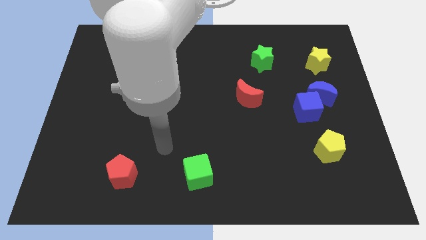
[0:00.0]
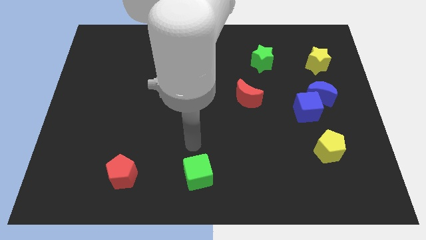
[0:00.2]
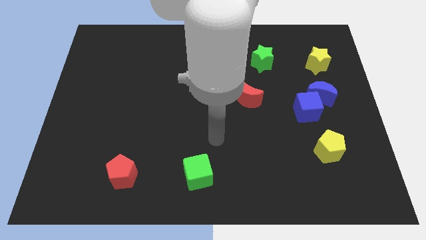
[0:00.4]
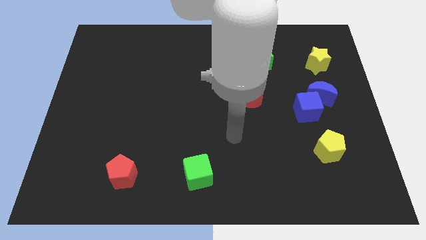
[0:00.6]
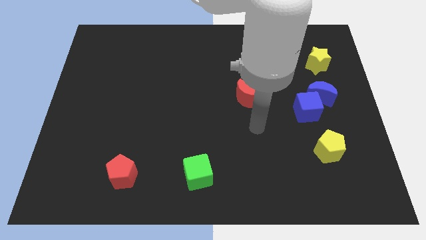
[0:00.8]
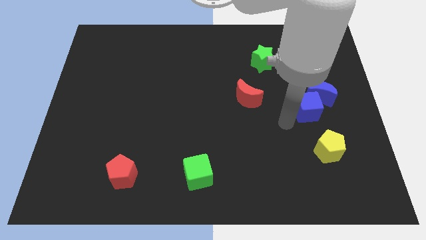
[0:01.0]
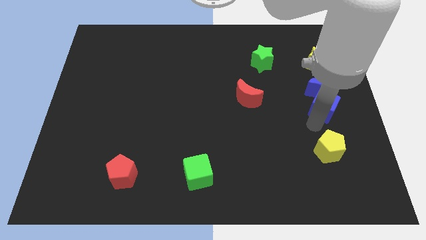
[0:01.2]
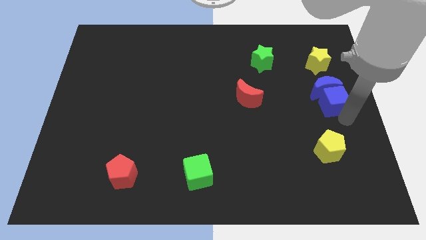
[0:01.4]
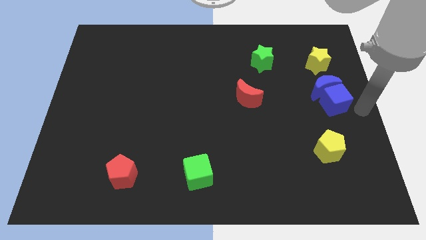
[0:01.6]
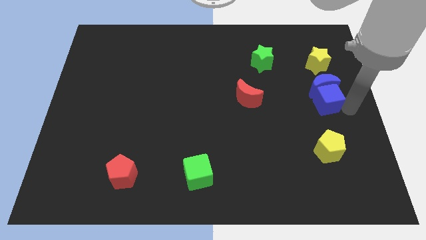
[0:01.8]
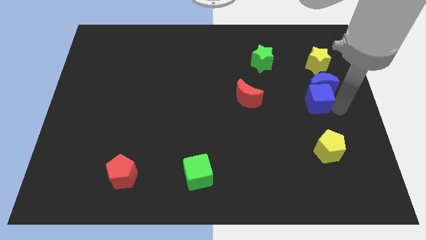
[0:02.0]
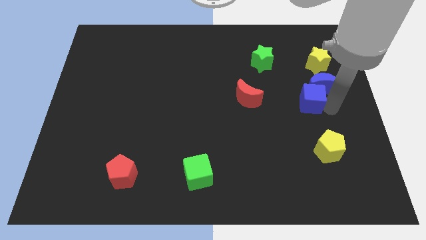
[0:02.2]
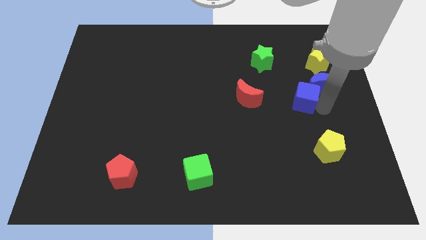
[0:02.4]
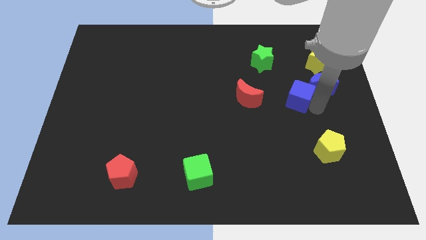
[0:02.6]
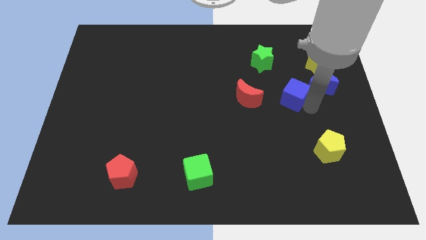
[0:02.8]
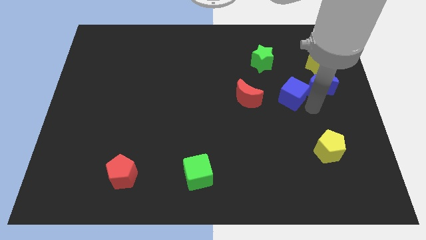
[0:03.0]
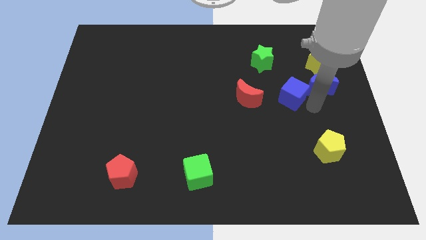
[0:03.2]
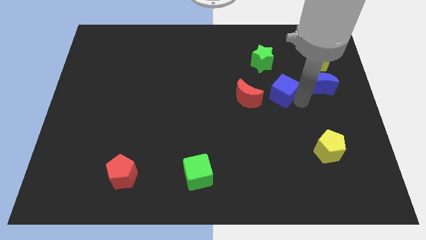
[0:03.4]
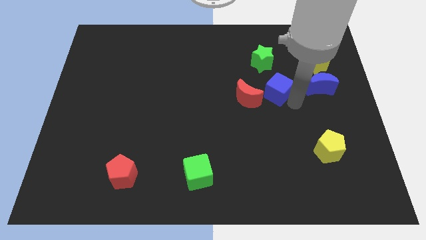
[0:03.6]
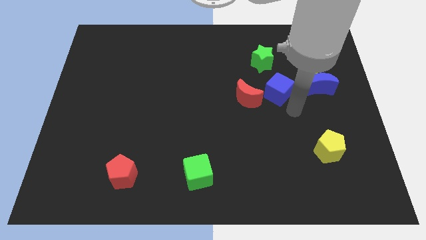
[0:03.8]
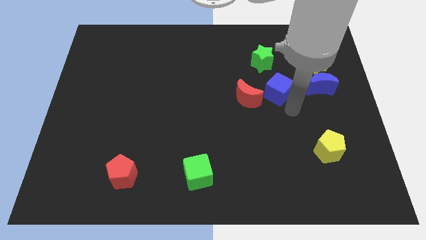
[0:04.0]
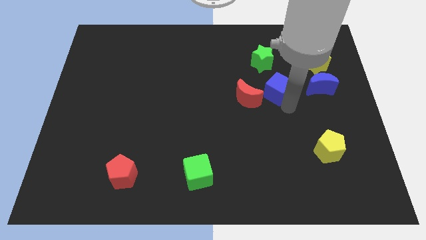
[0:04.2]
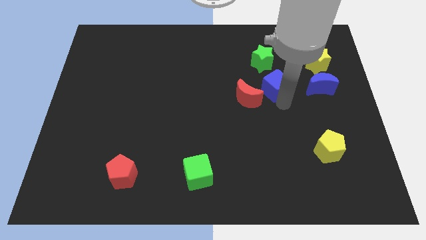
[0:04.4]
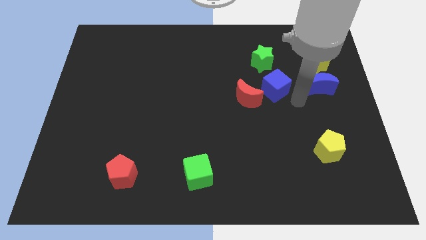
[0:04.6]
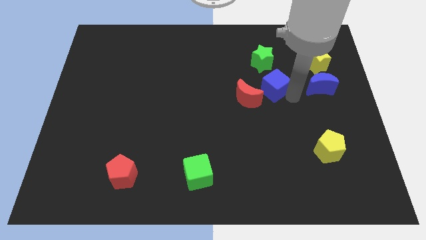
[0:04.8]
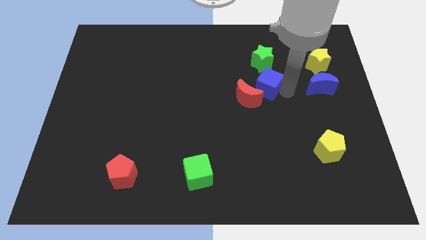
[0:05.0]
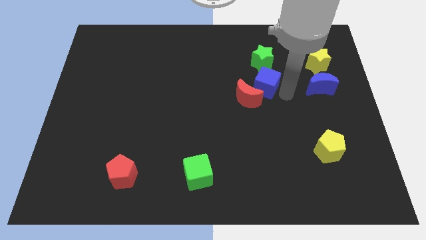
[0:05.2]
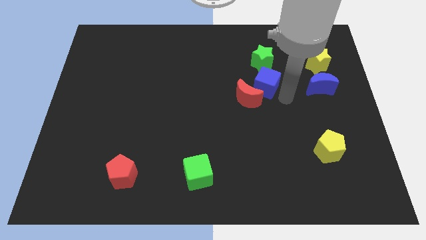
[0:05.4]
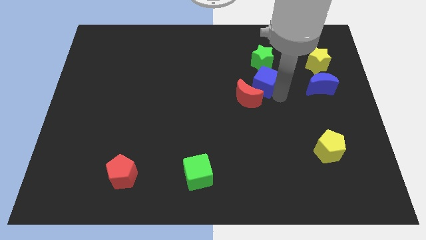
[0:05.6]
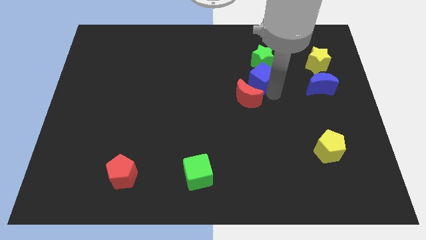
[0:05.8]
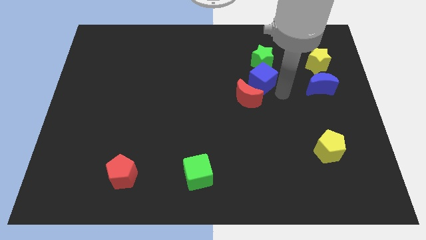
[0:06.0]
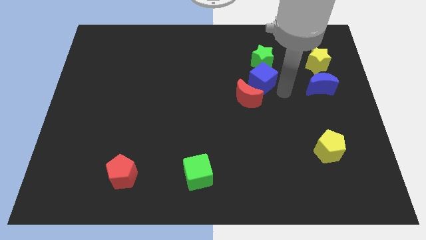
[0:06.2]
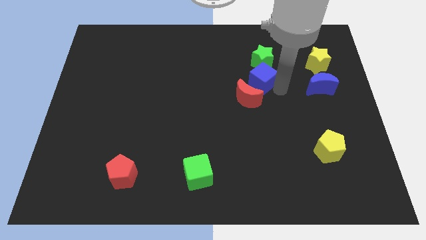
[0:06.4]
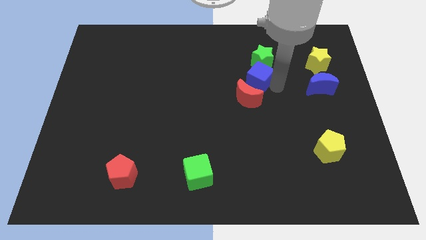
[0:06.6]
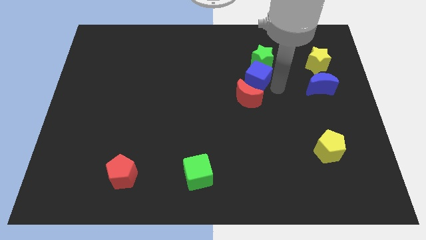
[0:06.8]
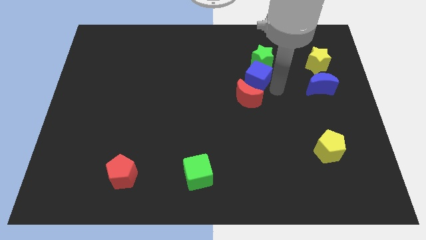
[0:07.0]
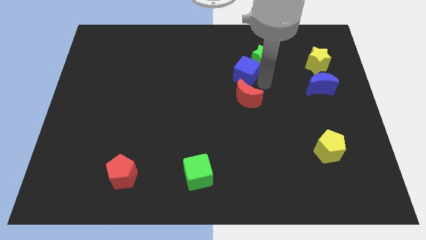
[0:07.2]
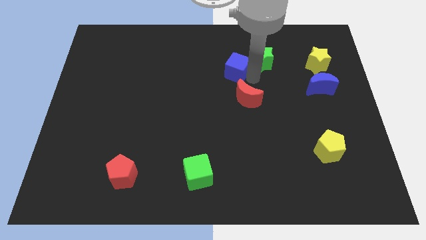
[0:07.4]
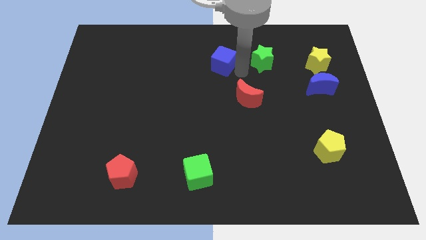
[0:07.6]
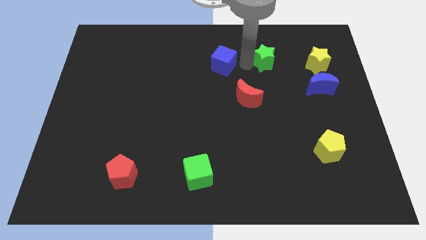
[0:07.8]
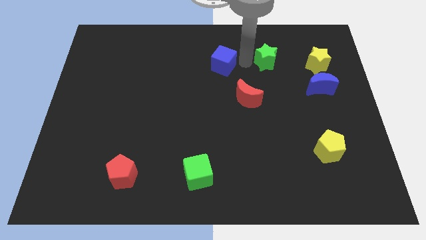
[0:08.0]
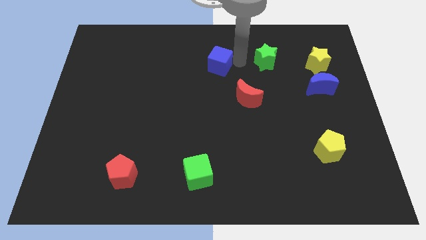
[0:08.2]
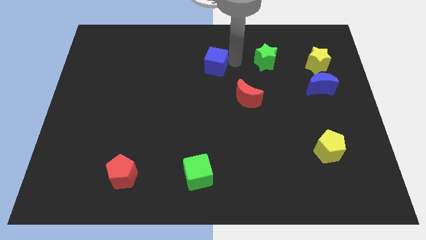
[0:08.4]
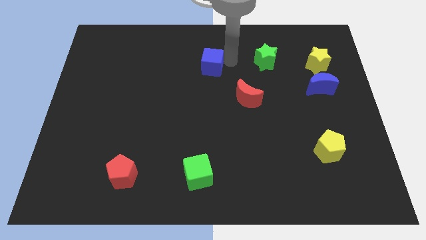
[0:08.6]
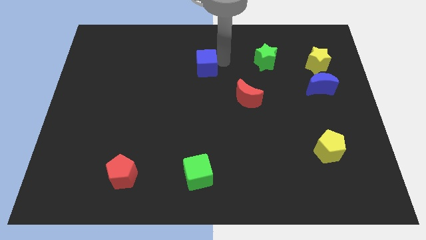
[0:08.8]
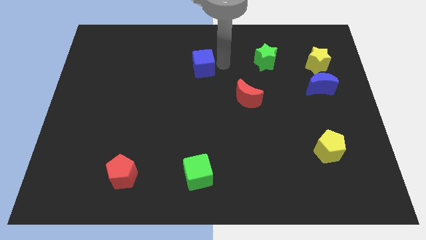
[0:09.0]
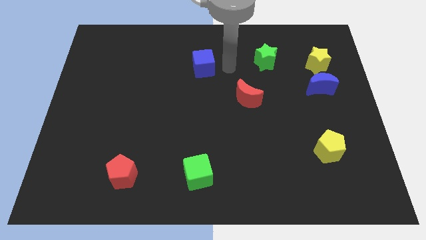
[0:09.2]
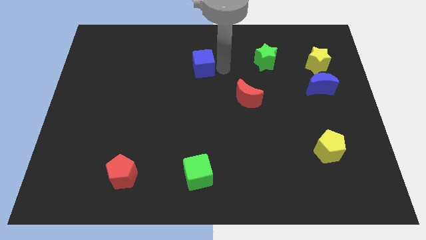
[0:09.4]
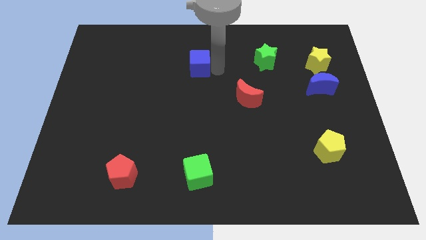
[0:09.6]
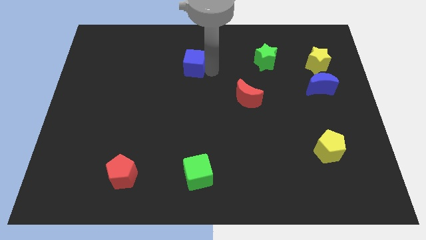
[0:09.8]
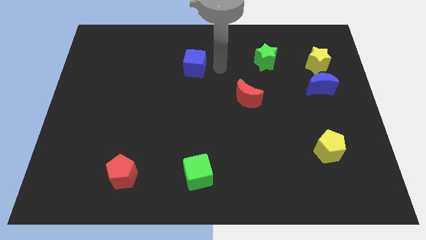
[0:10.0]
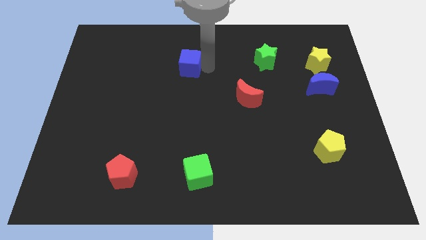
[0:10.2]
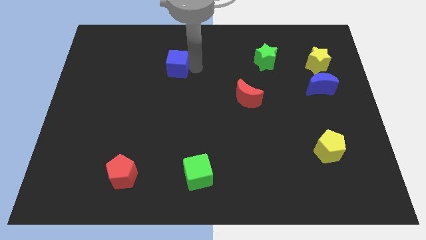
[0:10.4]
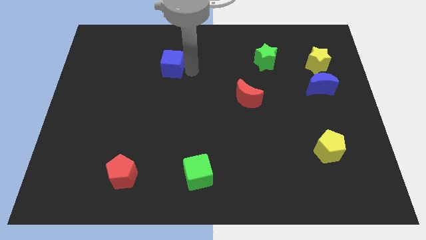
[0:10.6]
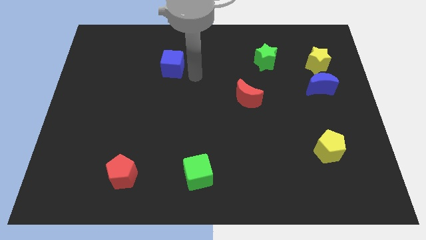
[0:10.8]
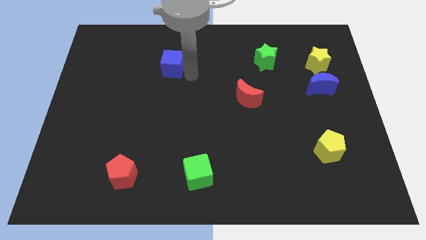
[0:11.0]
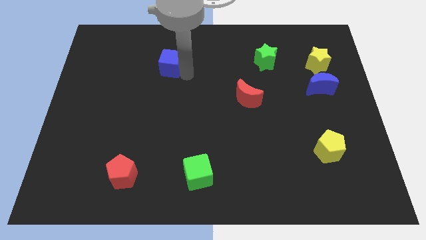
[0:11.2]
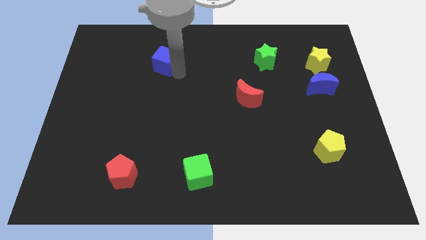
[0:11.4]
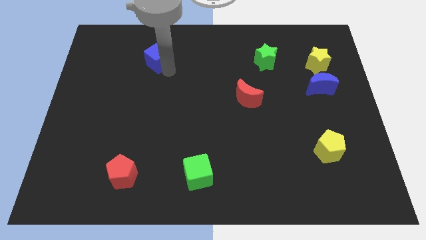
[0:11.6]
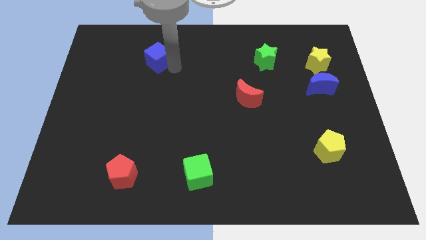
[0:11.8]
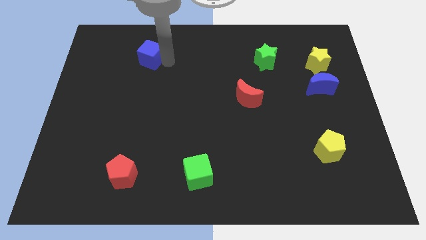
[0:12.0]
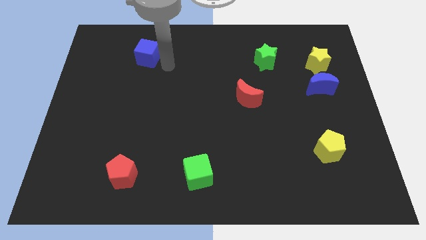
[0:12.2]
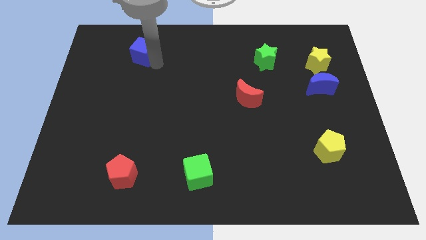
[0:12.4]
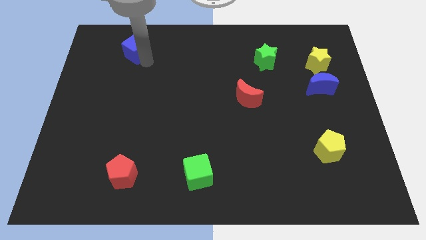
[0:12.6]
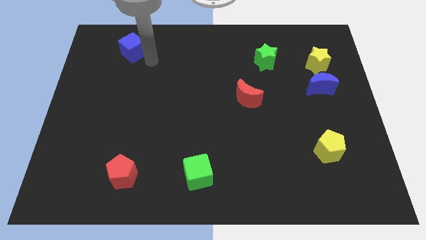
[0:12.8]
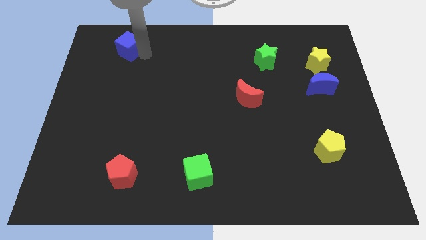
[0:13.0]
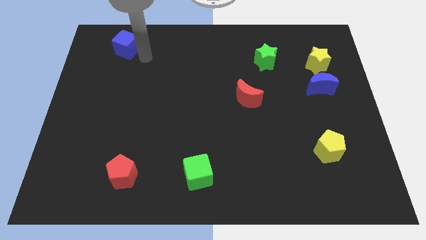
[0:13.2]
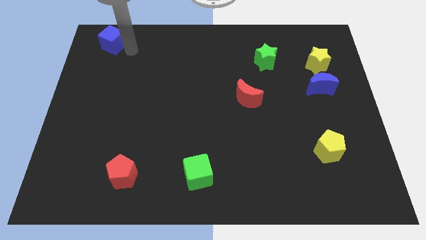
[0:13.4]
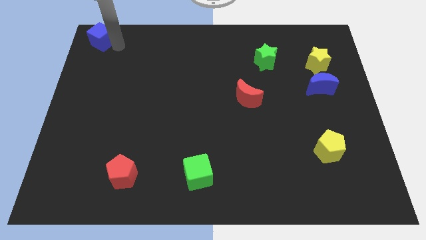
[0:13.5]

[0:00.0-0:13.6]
move the blue cube to the upper left corner
